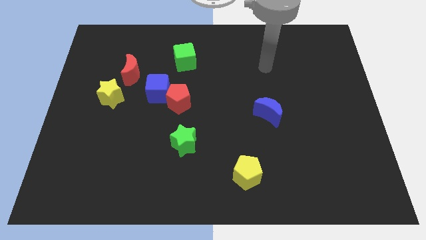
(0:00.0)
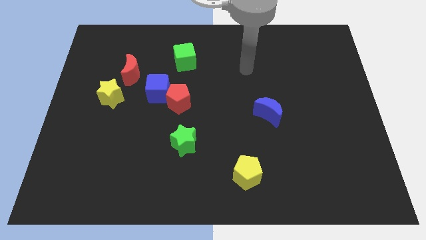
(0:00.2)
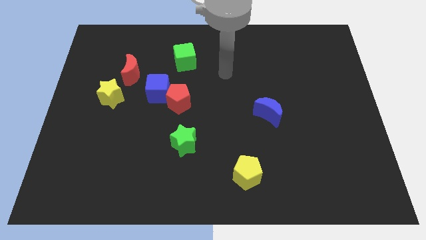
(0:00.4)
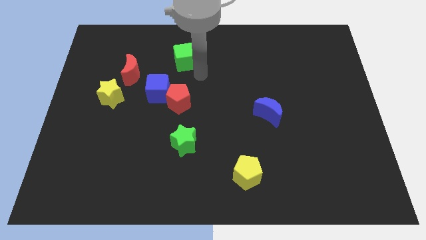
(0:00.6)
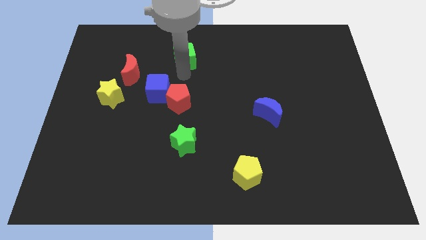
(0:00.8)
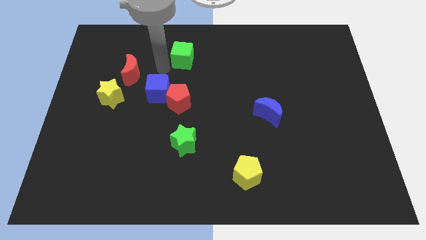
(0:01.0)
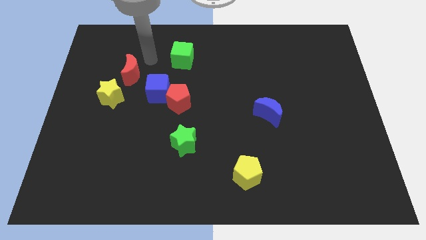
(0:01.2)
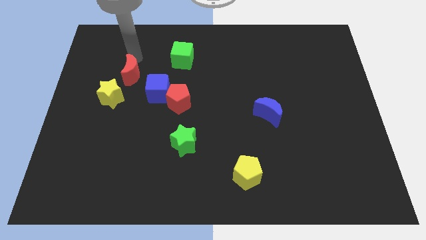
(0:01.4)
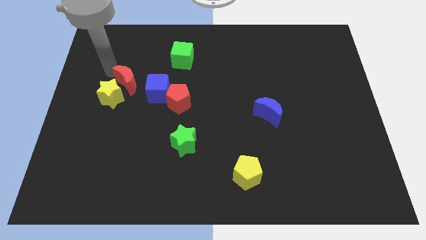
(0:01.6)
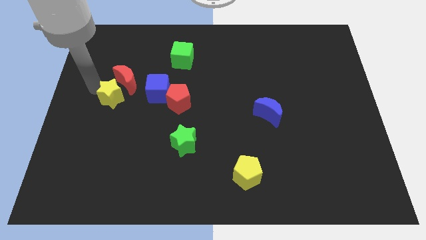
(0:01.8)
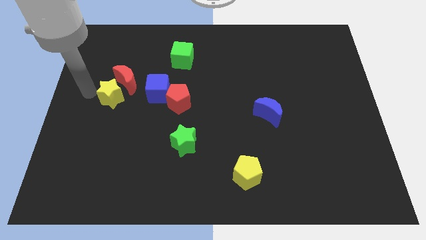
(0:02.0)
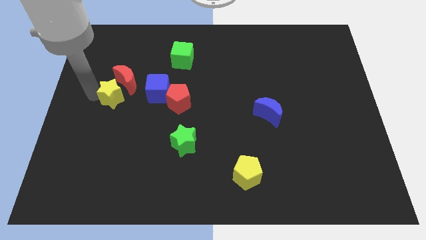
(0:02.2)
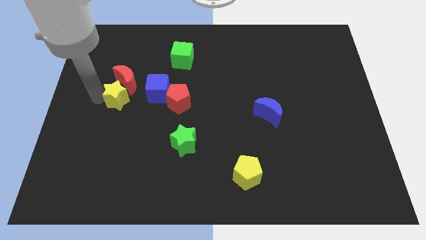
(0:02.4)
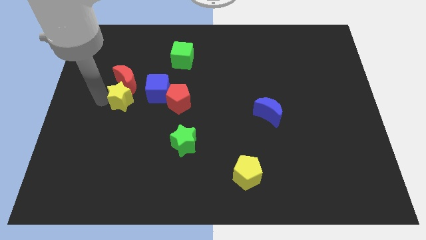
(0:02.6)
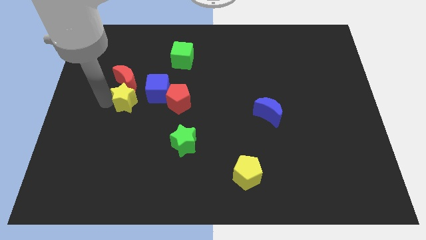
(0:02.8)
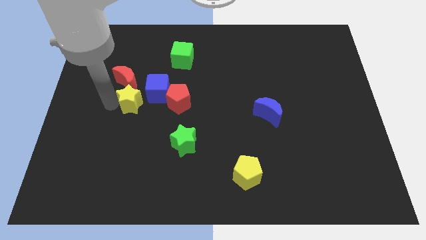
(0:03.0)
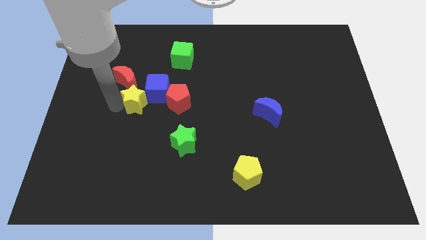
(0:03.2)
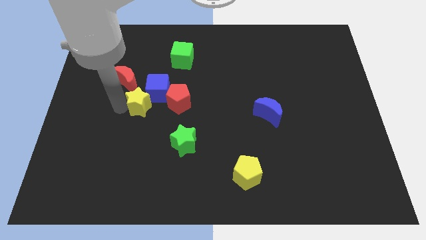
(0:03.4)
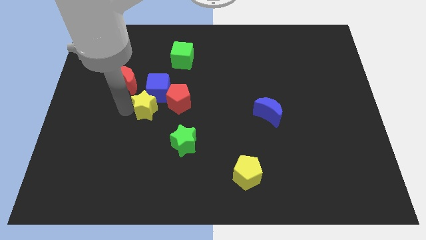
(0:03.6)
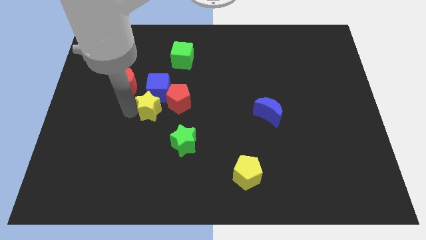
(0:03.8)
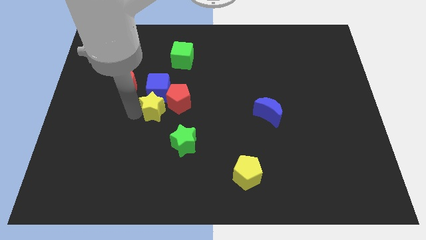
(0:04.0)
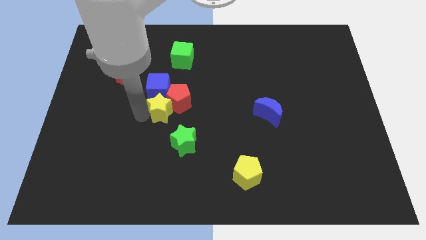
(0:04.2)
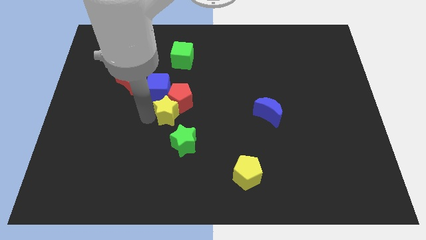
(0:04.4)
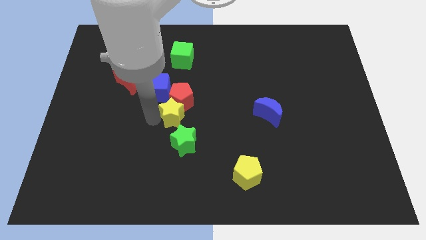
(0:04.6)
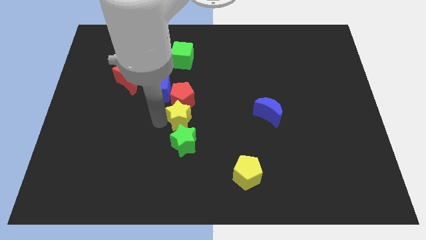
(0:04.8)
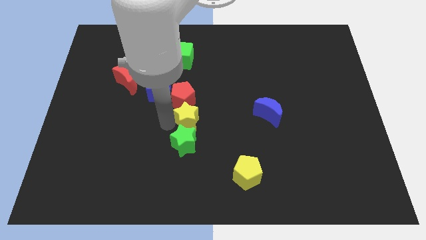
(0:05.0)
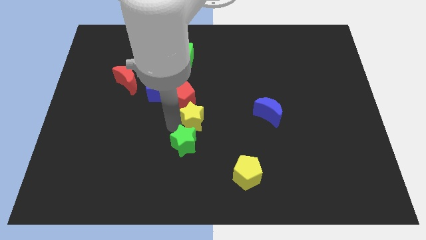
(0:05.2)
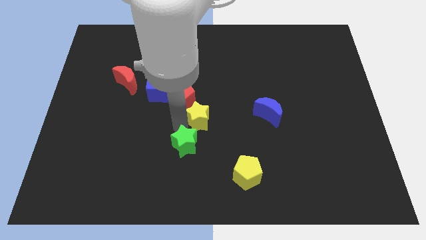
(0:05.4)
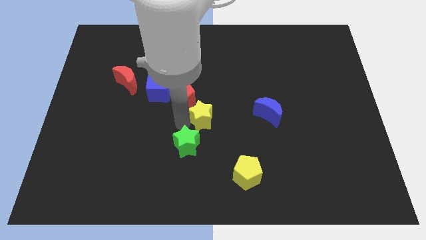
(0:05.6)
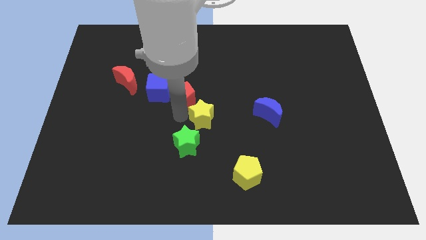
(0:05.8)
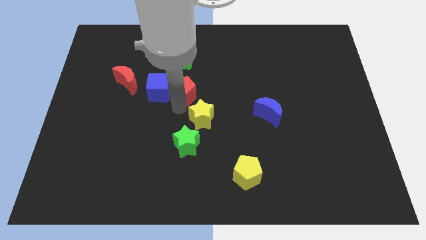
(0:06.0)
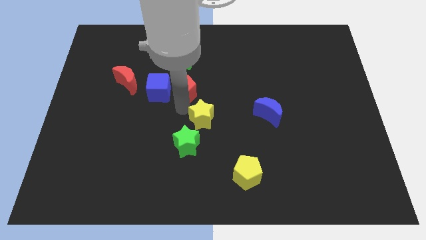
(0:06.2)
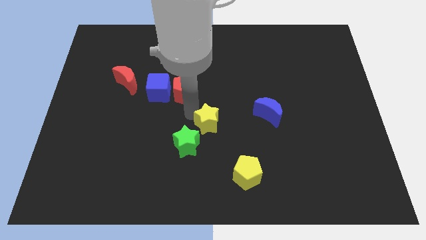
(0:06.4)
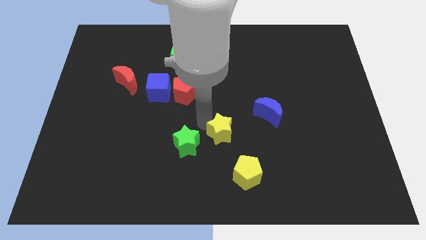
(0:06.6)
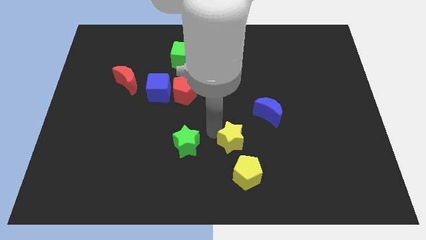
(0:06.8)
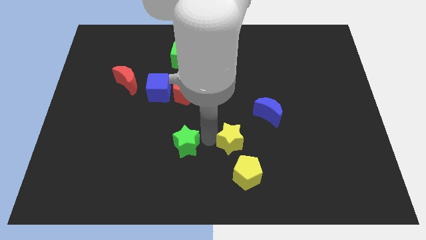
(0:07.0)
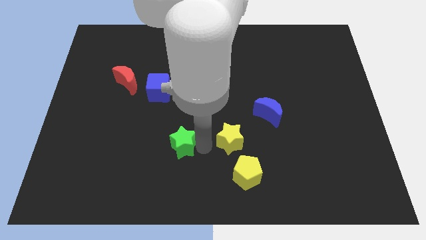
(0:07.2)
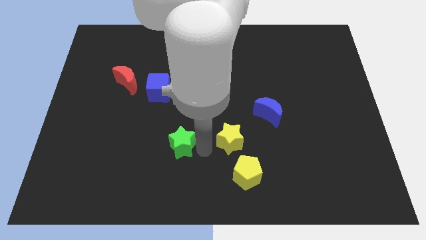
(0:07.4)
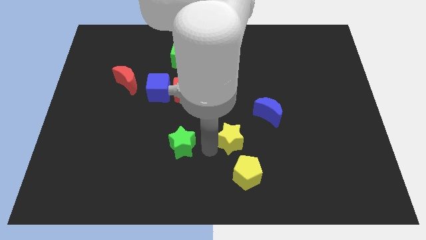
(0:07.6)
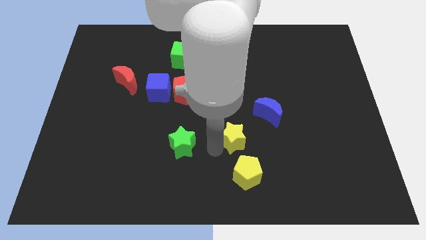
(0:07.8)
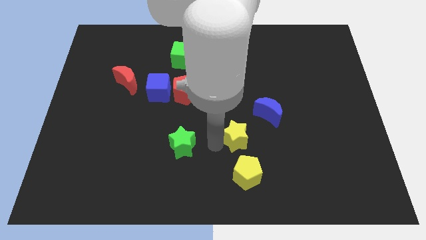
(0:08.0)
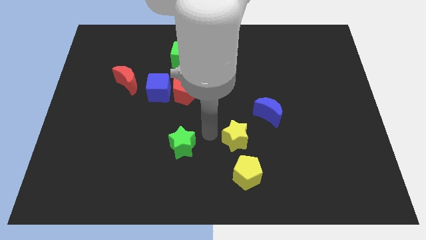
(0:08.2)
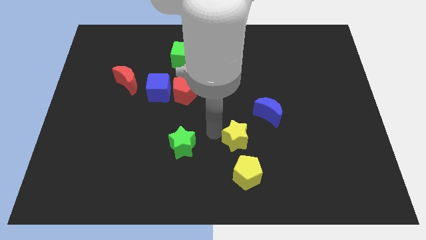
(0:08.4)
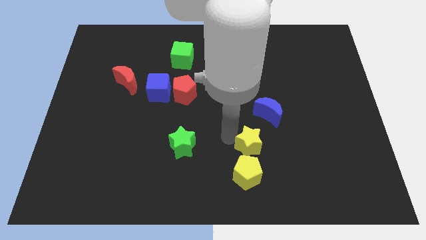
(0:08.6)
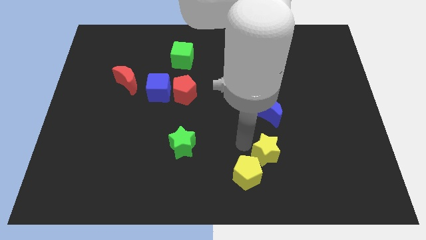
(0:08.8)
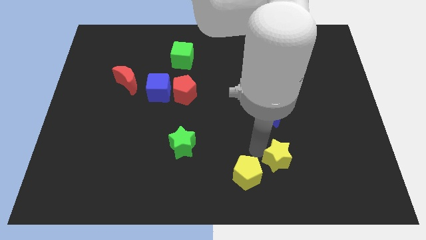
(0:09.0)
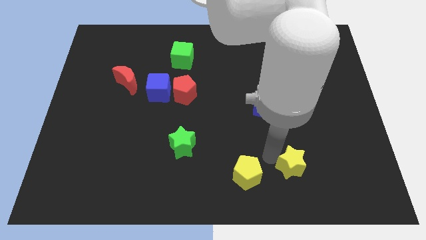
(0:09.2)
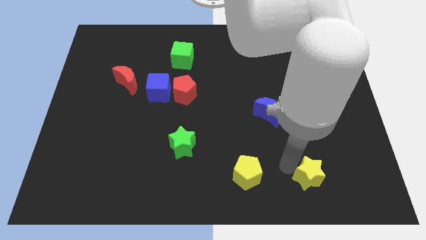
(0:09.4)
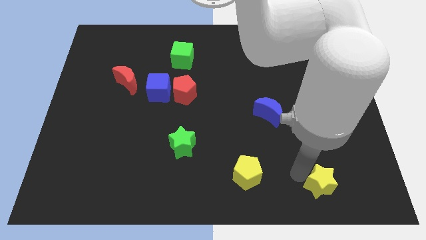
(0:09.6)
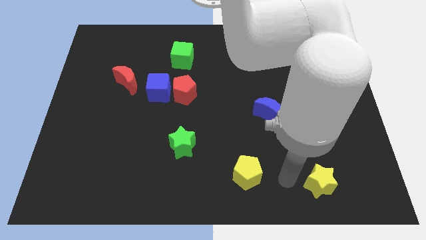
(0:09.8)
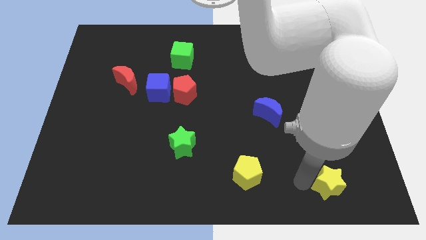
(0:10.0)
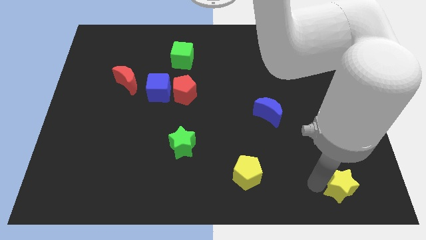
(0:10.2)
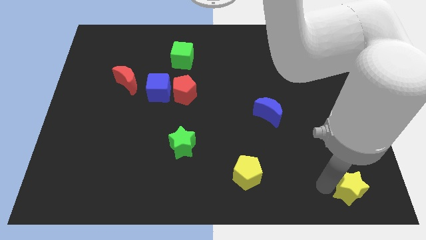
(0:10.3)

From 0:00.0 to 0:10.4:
put the yellow star to the bottom right

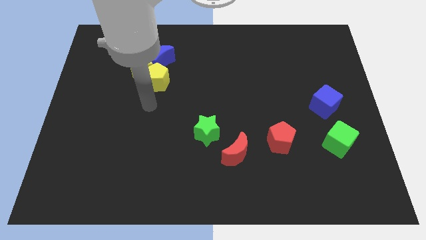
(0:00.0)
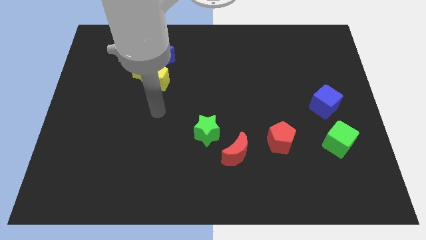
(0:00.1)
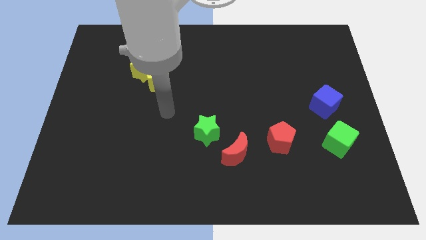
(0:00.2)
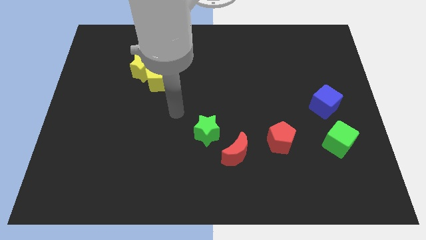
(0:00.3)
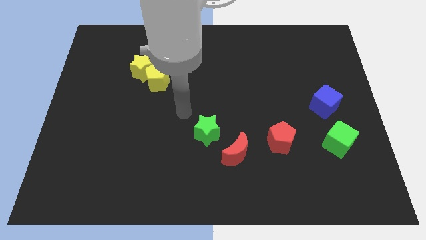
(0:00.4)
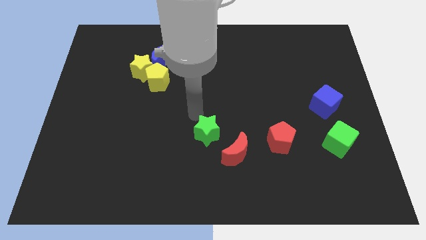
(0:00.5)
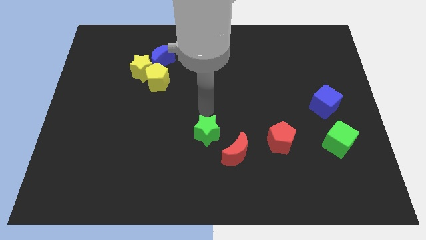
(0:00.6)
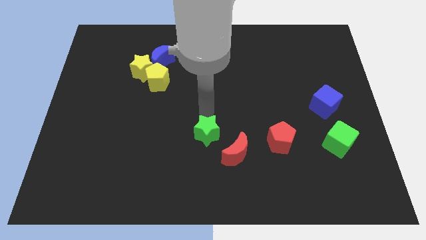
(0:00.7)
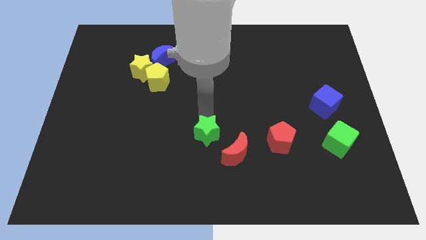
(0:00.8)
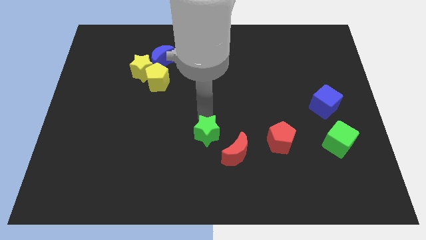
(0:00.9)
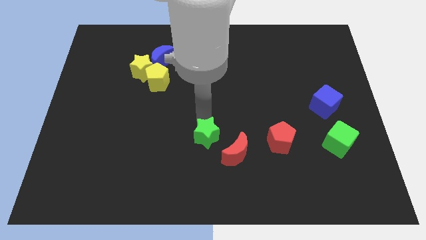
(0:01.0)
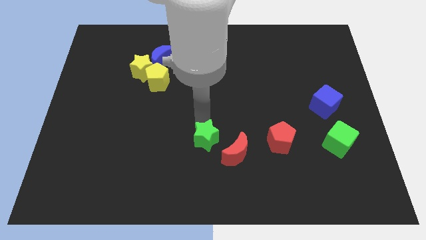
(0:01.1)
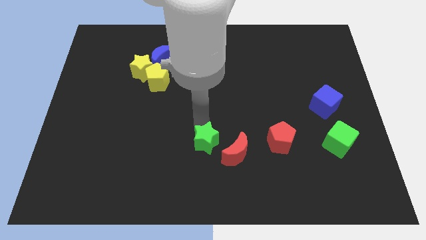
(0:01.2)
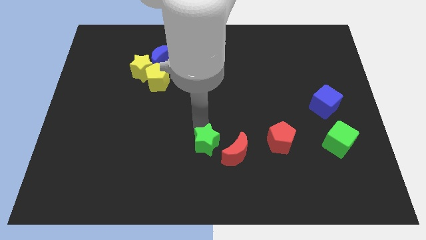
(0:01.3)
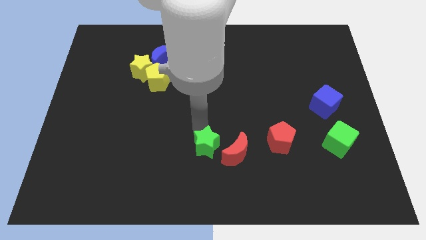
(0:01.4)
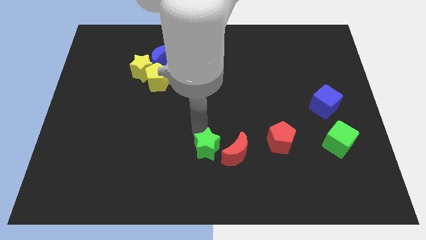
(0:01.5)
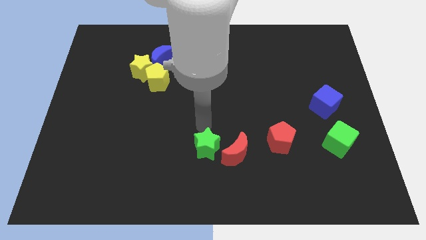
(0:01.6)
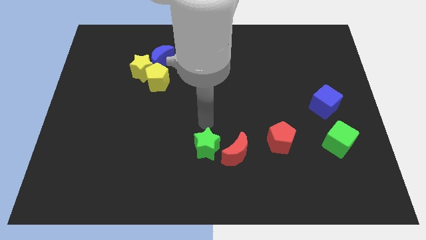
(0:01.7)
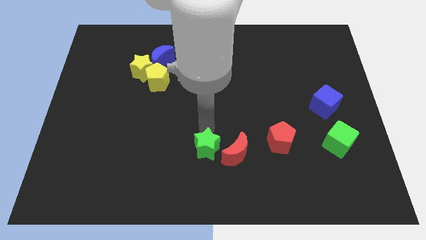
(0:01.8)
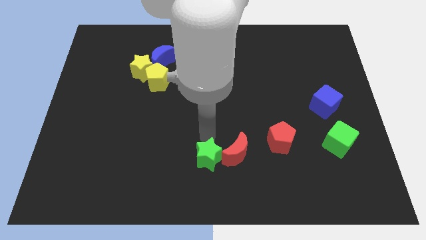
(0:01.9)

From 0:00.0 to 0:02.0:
move the green star to the bottom side
